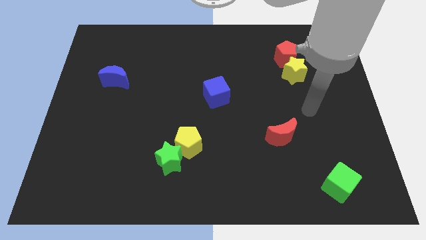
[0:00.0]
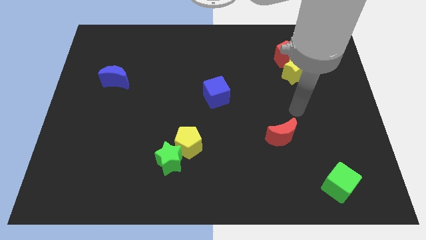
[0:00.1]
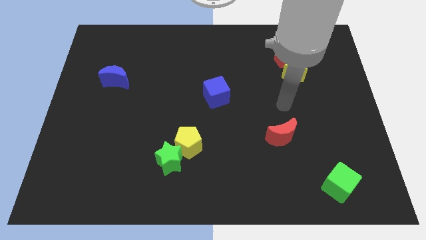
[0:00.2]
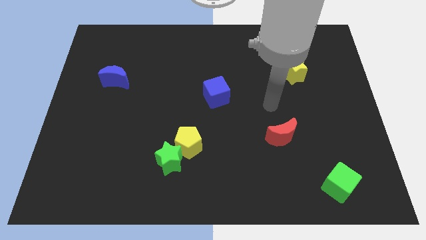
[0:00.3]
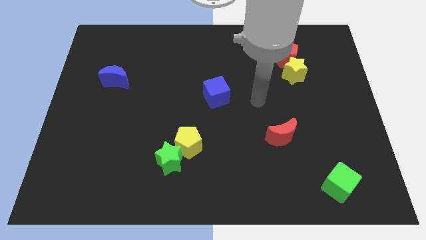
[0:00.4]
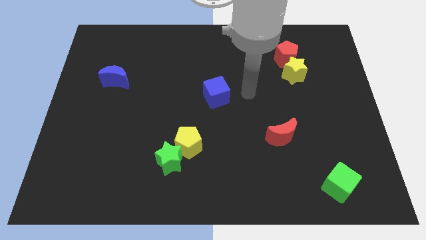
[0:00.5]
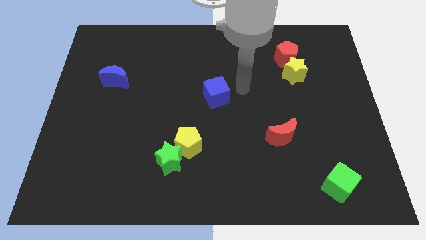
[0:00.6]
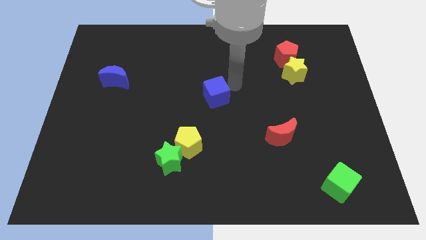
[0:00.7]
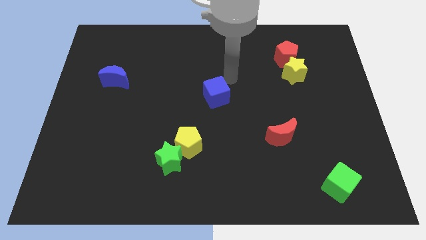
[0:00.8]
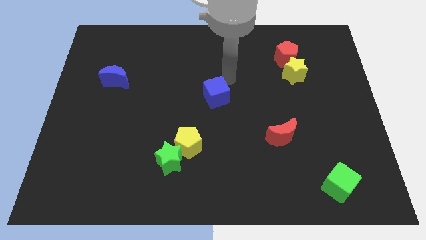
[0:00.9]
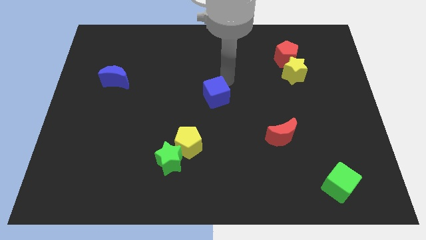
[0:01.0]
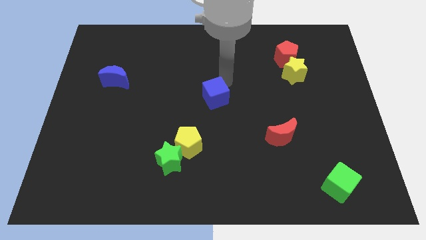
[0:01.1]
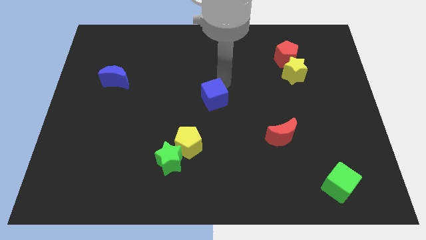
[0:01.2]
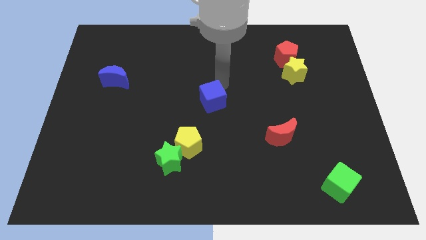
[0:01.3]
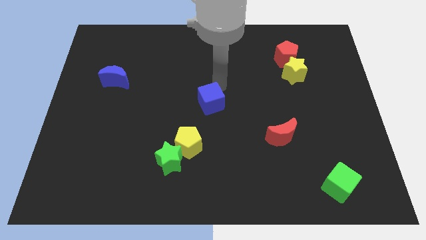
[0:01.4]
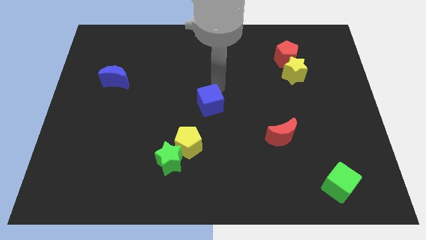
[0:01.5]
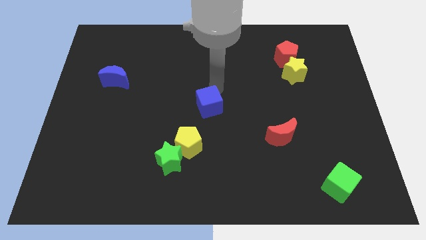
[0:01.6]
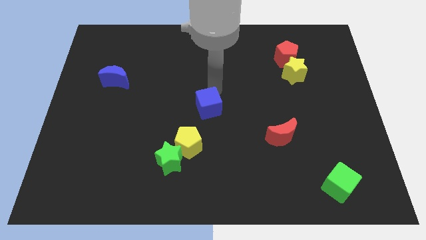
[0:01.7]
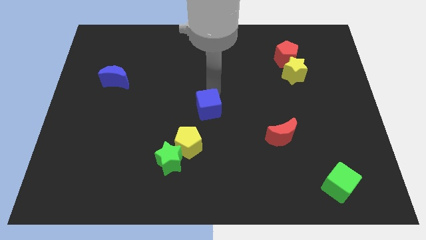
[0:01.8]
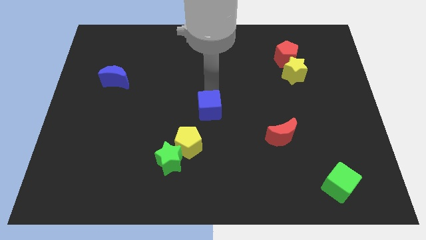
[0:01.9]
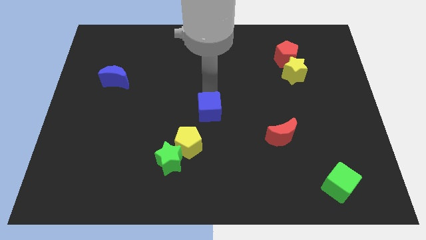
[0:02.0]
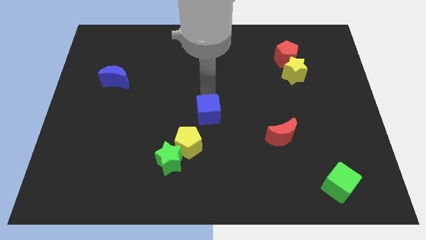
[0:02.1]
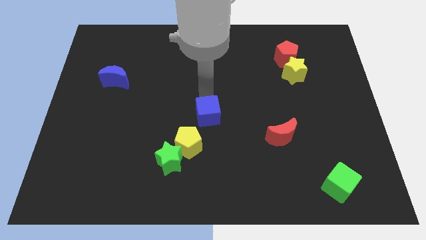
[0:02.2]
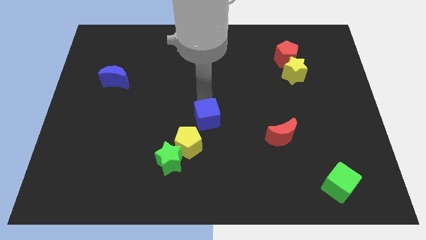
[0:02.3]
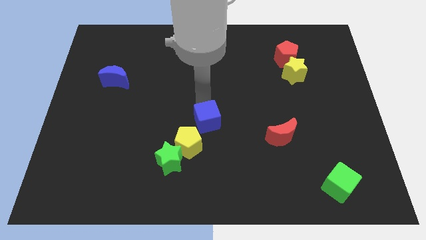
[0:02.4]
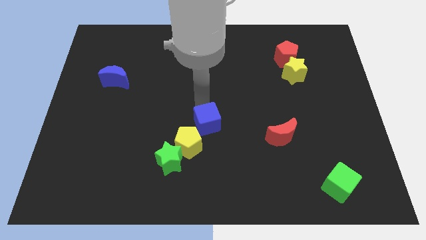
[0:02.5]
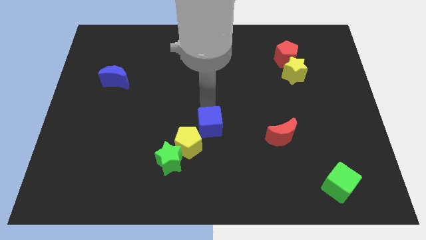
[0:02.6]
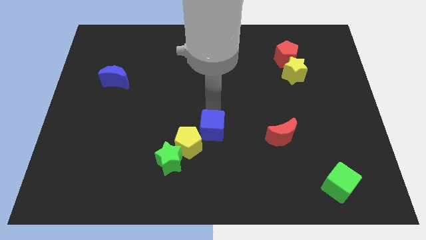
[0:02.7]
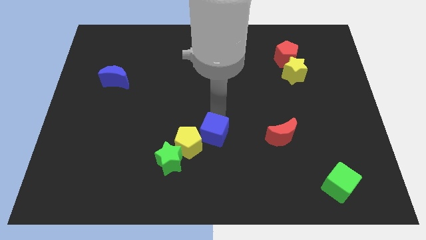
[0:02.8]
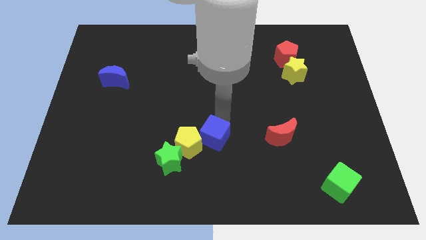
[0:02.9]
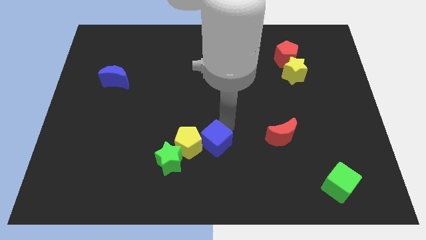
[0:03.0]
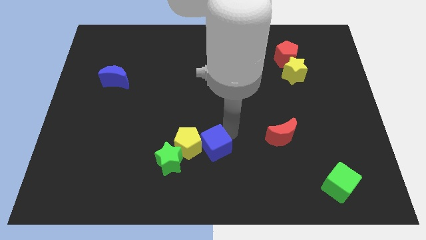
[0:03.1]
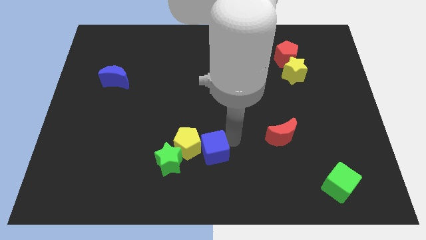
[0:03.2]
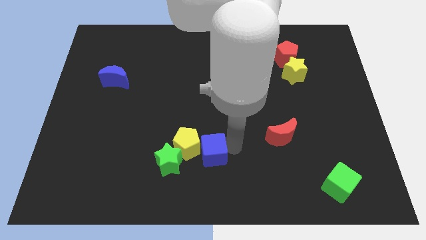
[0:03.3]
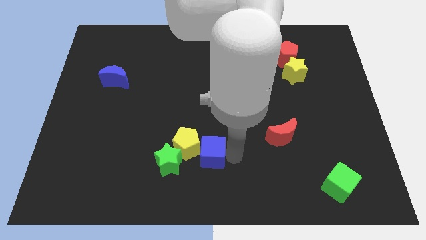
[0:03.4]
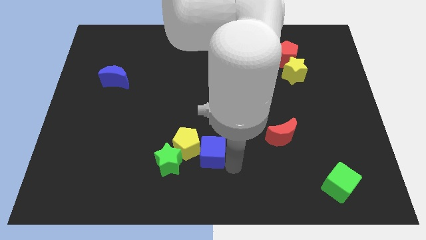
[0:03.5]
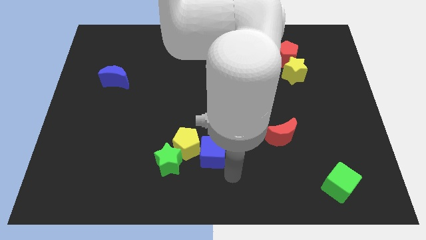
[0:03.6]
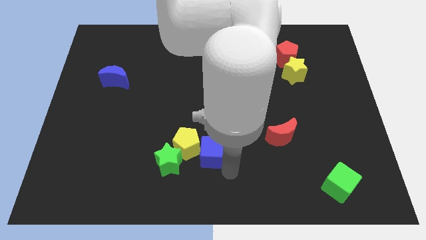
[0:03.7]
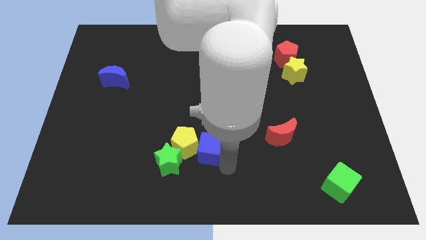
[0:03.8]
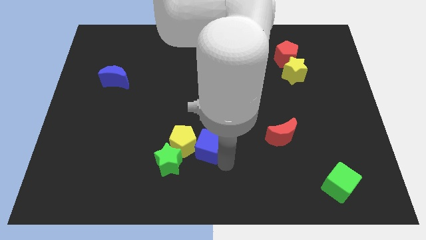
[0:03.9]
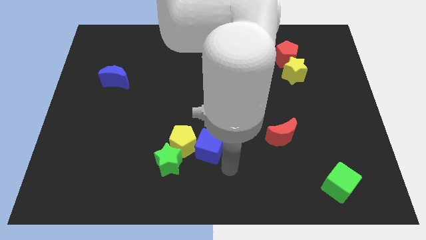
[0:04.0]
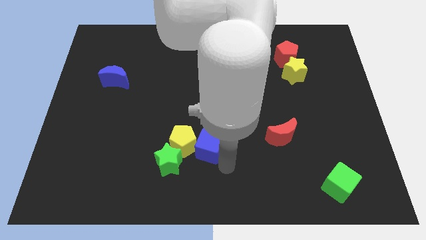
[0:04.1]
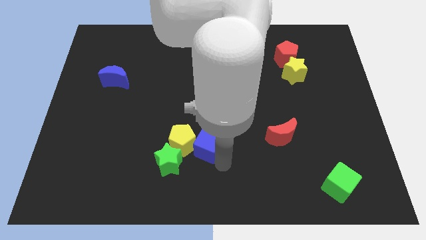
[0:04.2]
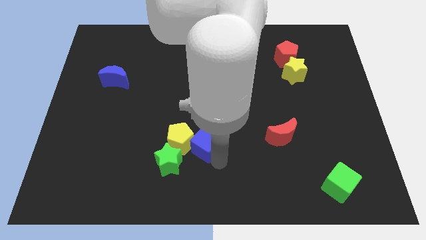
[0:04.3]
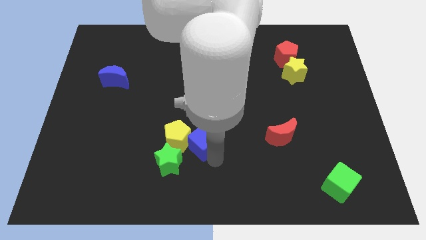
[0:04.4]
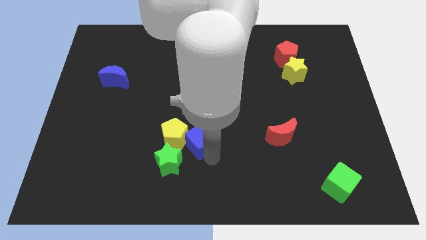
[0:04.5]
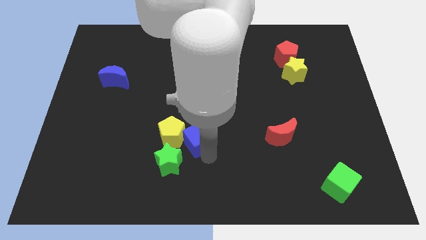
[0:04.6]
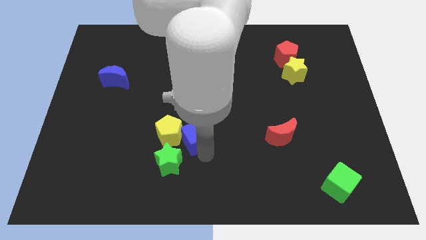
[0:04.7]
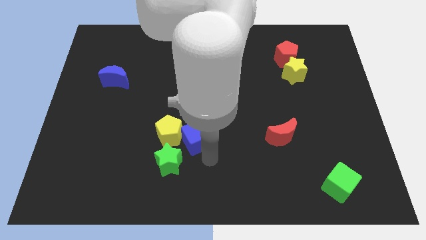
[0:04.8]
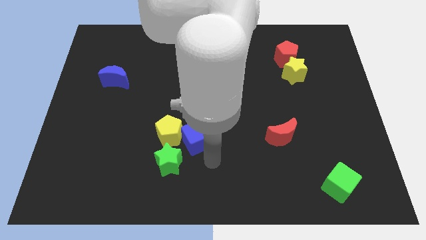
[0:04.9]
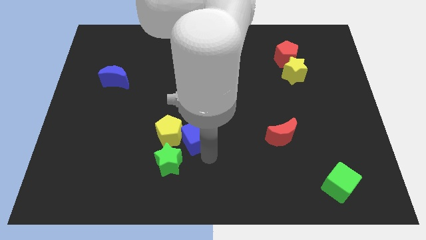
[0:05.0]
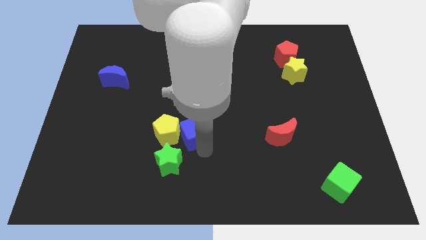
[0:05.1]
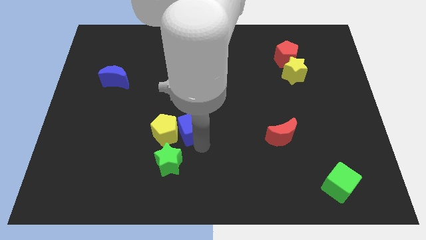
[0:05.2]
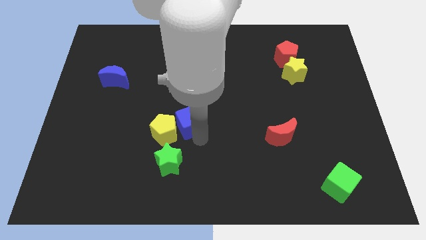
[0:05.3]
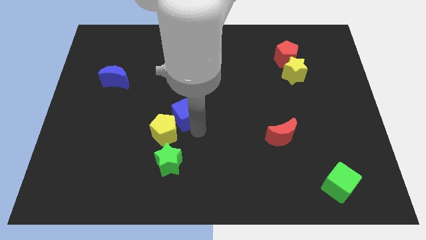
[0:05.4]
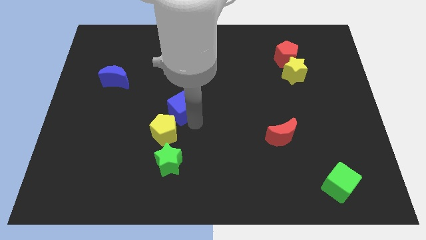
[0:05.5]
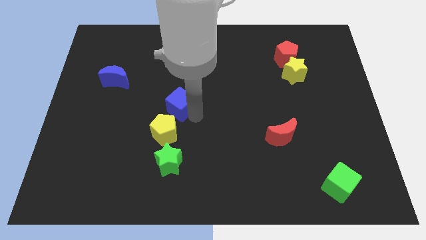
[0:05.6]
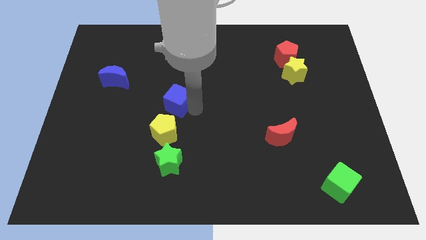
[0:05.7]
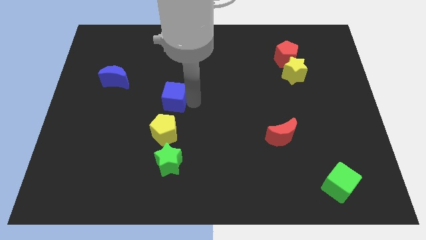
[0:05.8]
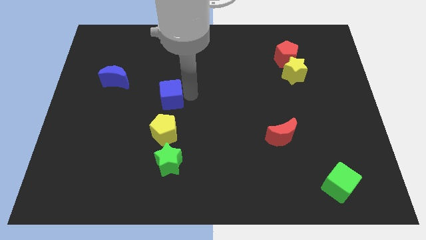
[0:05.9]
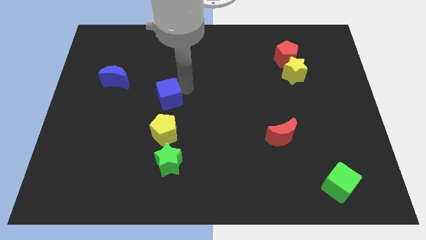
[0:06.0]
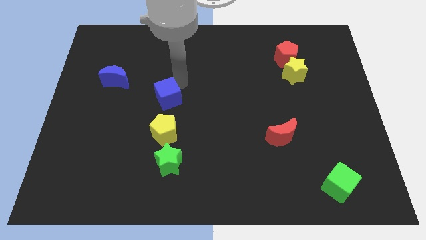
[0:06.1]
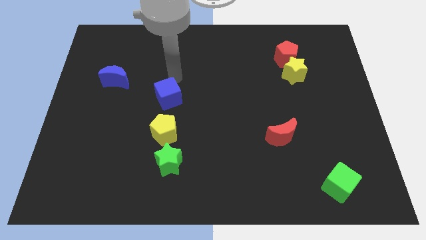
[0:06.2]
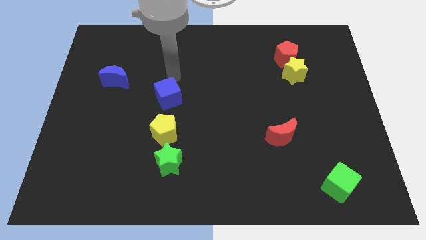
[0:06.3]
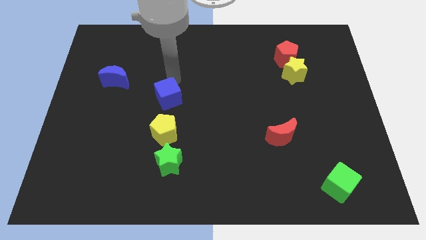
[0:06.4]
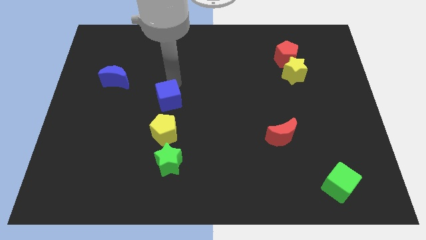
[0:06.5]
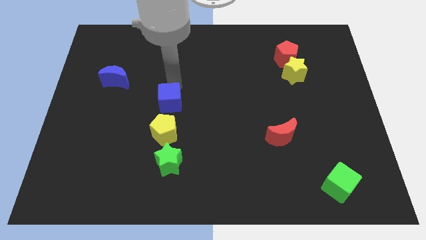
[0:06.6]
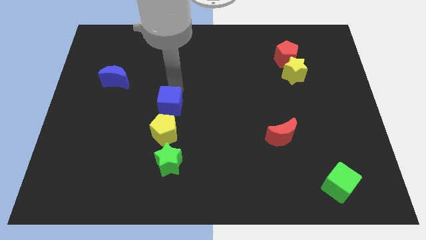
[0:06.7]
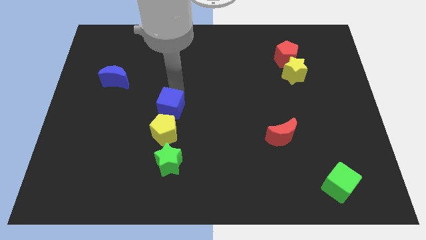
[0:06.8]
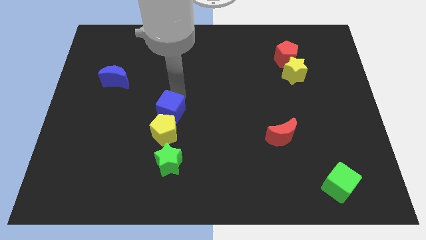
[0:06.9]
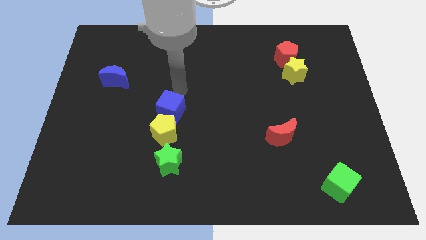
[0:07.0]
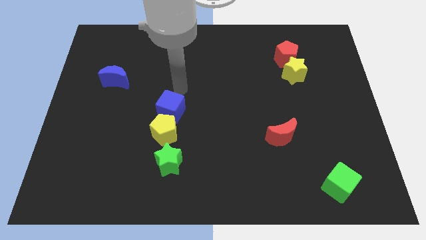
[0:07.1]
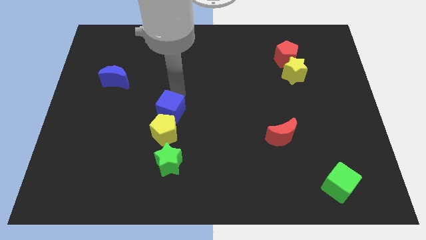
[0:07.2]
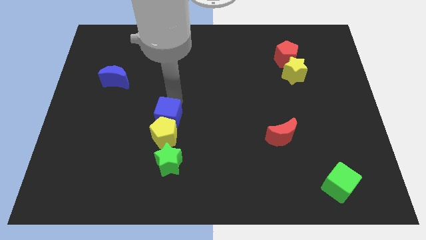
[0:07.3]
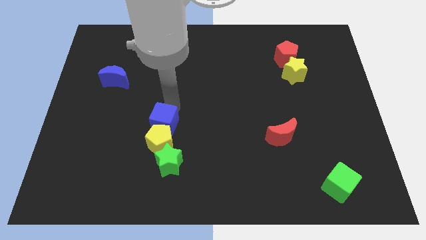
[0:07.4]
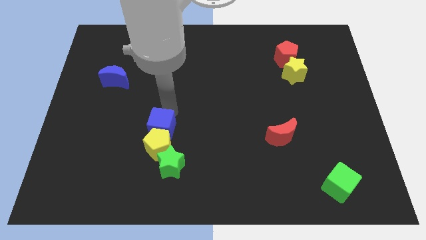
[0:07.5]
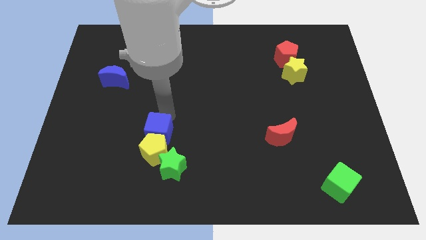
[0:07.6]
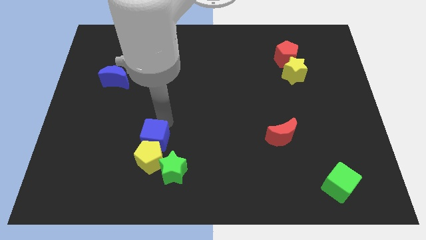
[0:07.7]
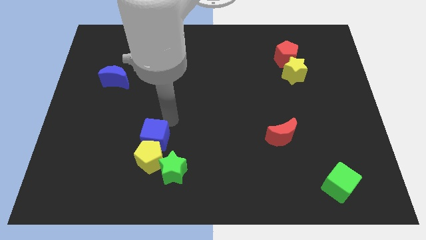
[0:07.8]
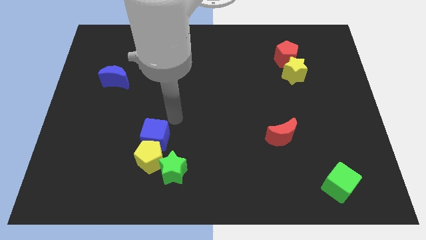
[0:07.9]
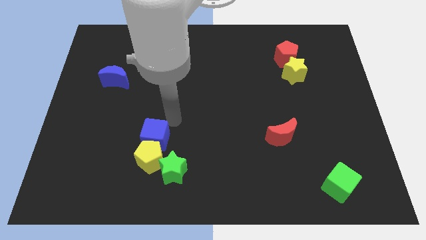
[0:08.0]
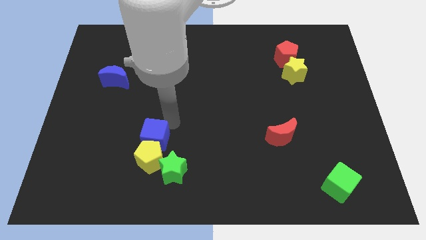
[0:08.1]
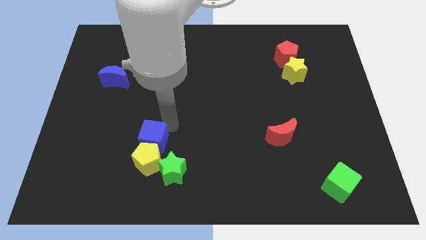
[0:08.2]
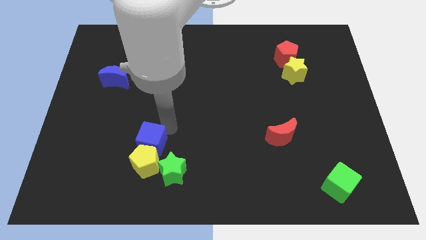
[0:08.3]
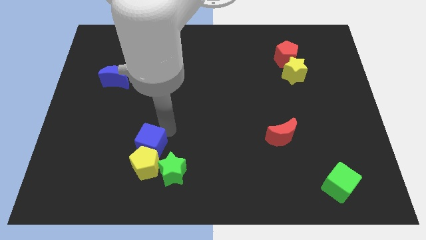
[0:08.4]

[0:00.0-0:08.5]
move the blue cube downwards and to the left
